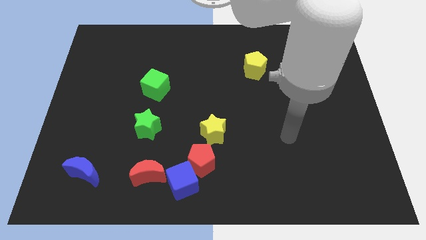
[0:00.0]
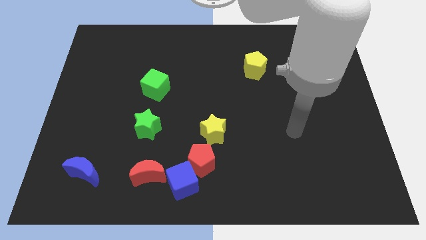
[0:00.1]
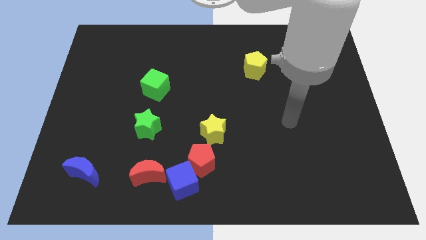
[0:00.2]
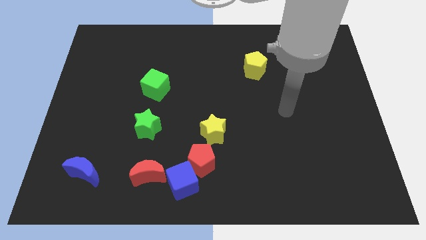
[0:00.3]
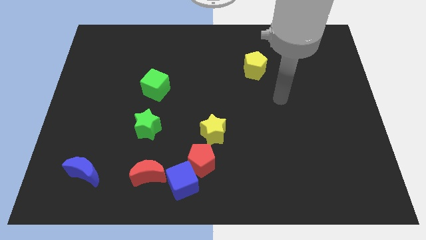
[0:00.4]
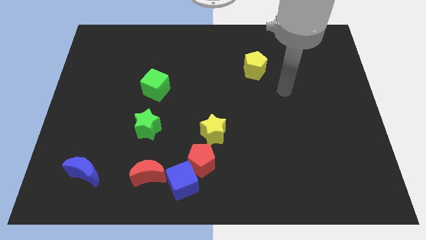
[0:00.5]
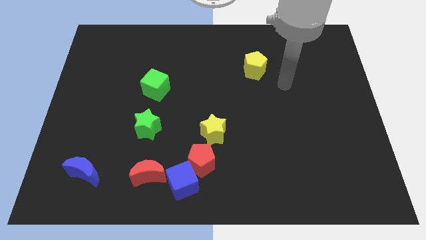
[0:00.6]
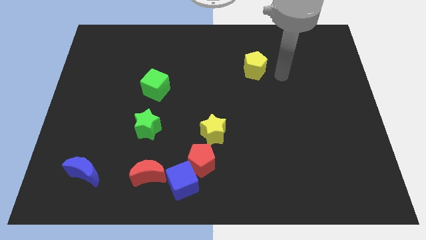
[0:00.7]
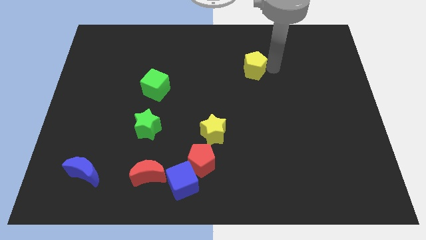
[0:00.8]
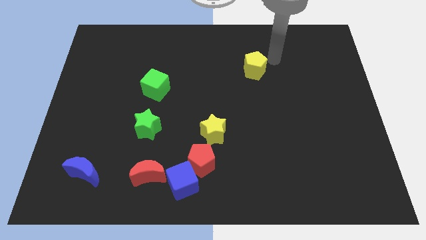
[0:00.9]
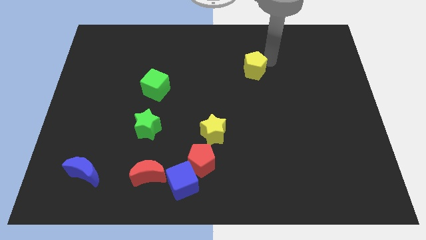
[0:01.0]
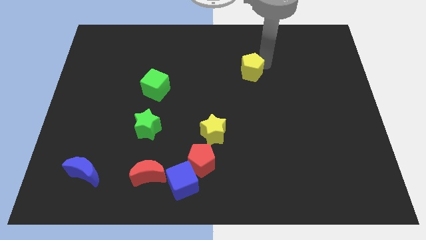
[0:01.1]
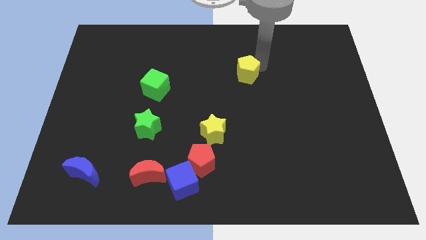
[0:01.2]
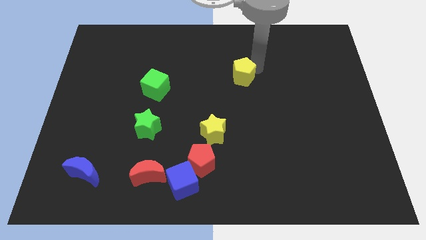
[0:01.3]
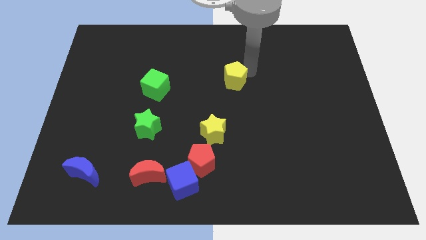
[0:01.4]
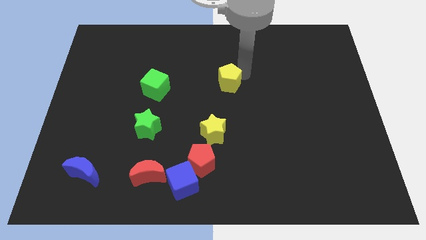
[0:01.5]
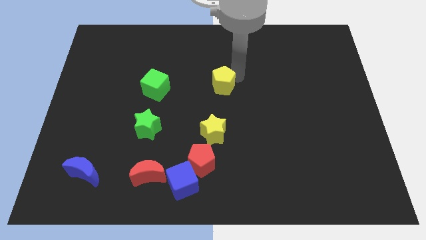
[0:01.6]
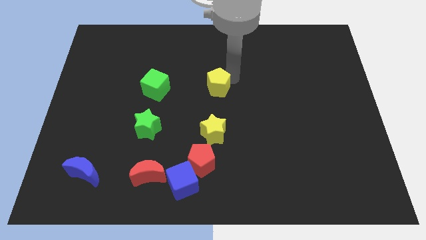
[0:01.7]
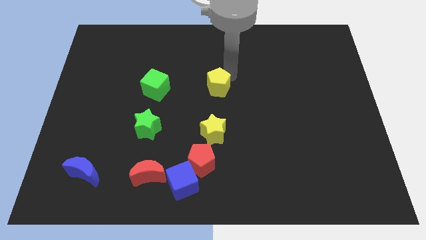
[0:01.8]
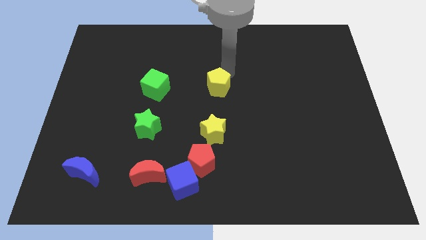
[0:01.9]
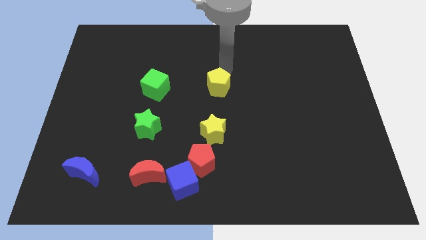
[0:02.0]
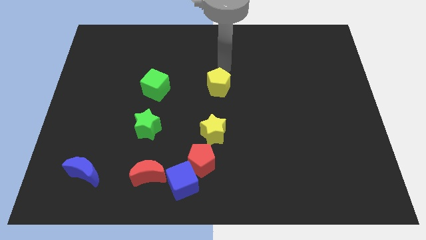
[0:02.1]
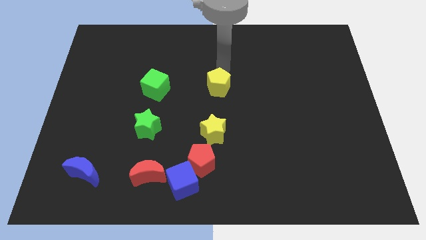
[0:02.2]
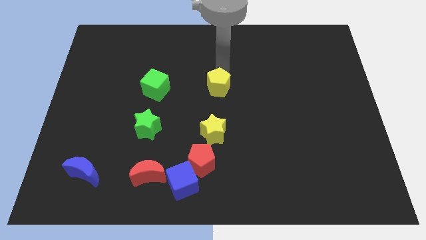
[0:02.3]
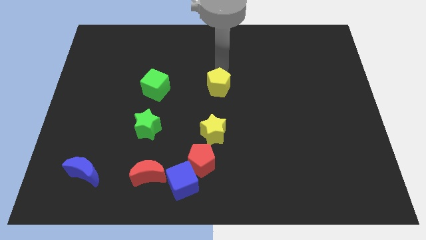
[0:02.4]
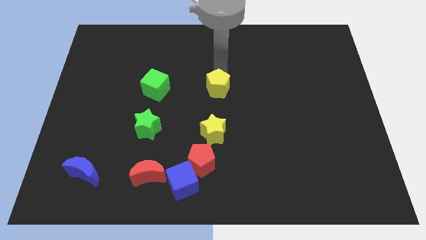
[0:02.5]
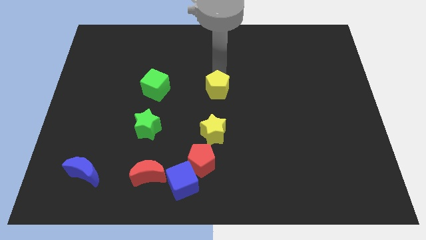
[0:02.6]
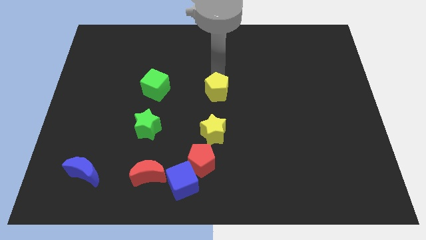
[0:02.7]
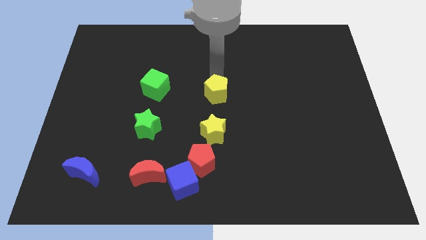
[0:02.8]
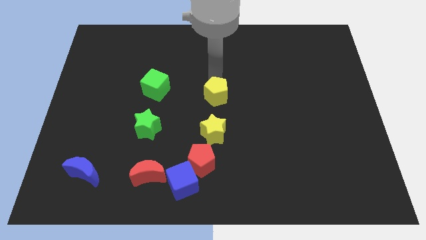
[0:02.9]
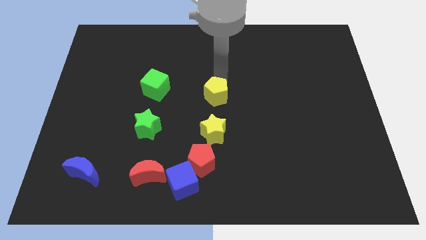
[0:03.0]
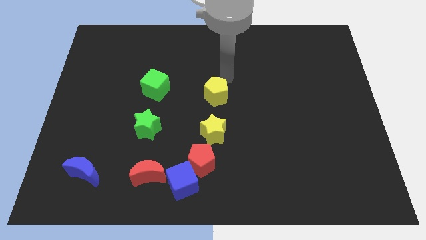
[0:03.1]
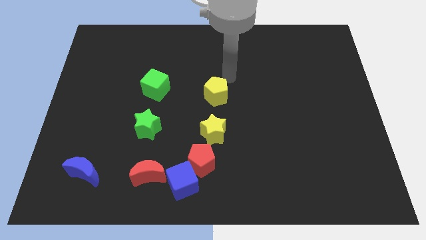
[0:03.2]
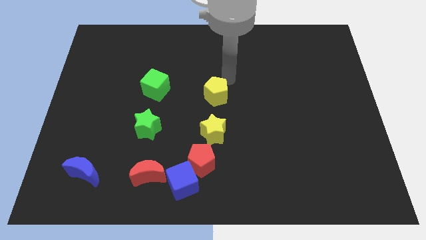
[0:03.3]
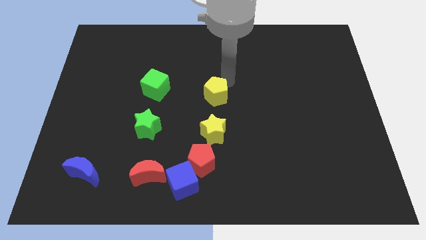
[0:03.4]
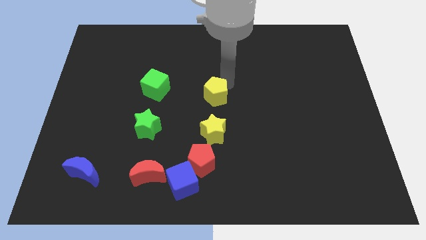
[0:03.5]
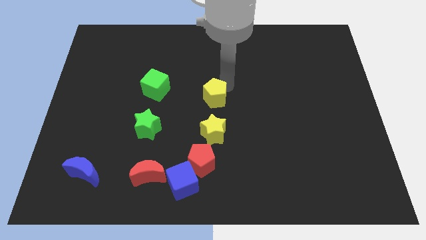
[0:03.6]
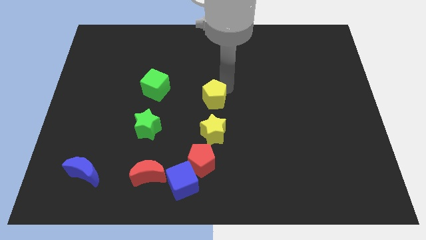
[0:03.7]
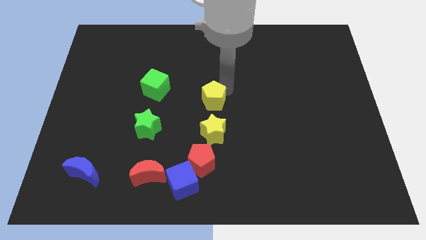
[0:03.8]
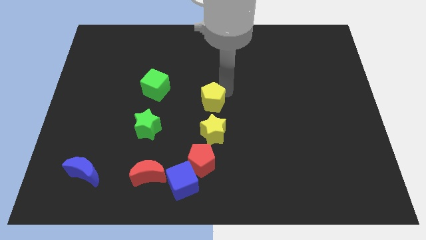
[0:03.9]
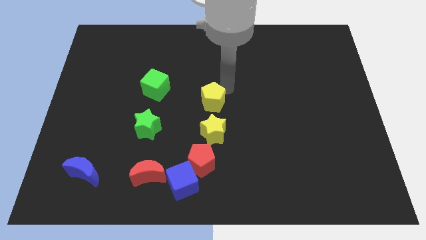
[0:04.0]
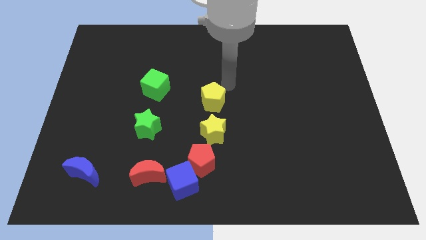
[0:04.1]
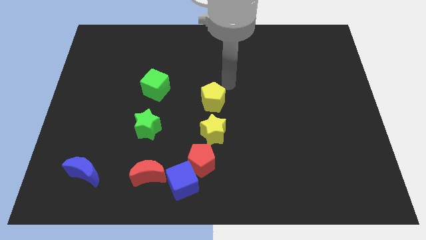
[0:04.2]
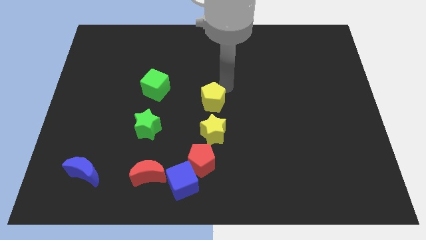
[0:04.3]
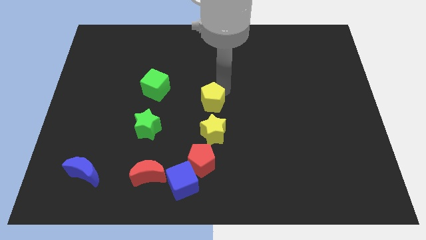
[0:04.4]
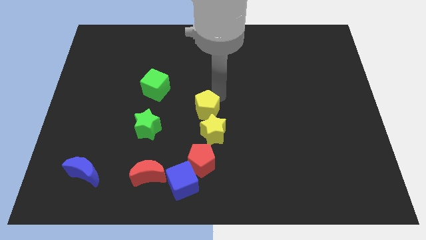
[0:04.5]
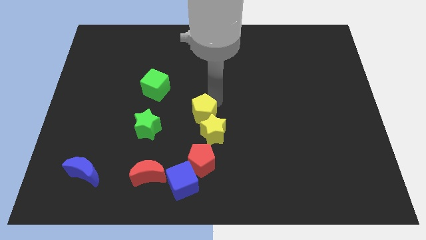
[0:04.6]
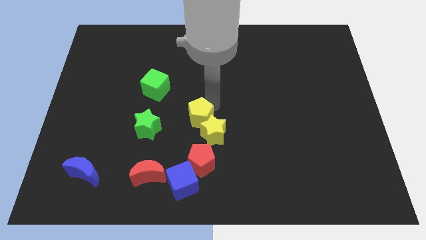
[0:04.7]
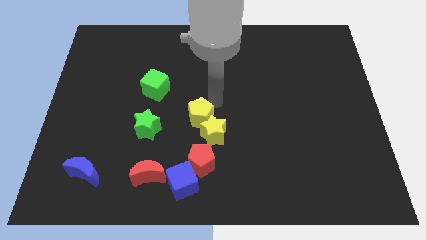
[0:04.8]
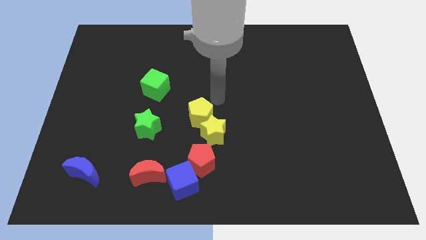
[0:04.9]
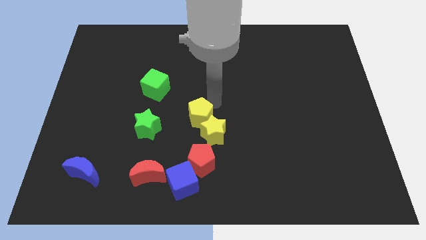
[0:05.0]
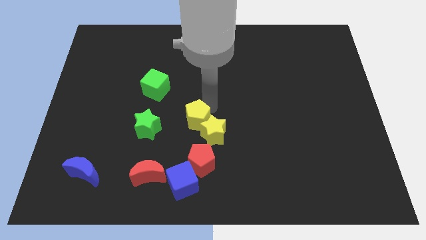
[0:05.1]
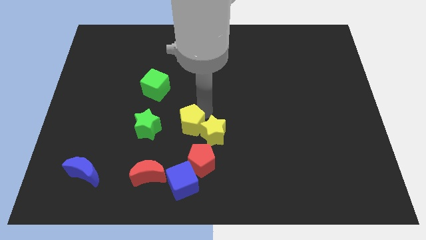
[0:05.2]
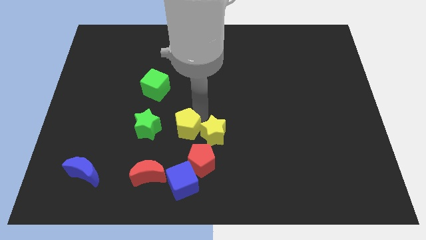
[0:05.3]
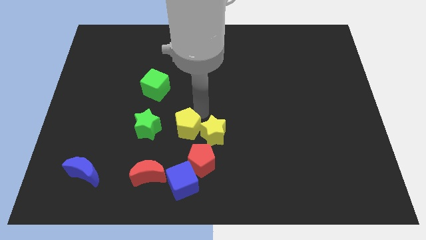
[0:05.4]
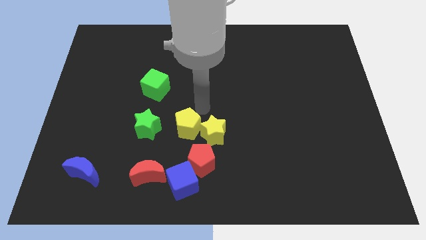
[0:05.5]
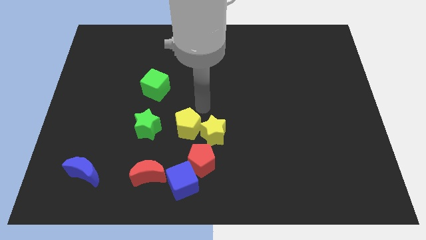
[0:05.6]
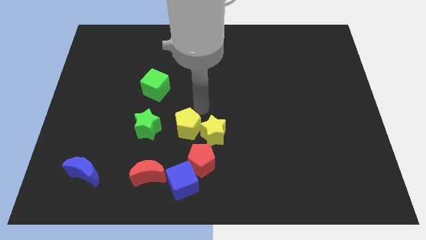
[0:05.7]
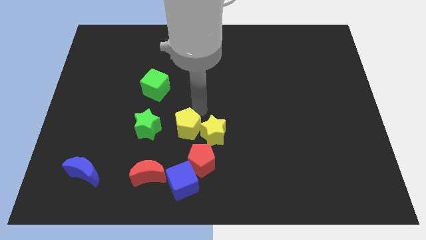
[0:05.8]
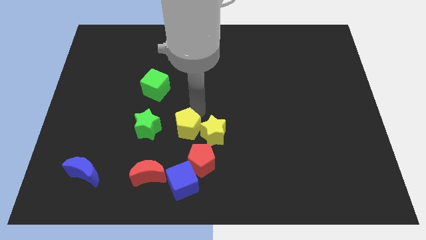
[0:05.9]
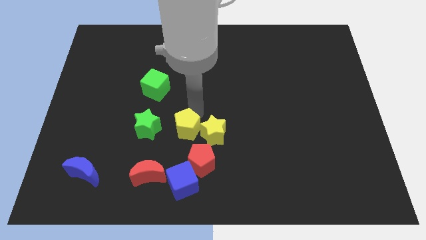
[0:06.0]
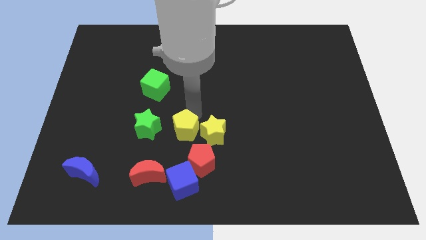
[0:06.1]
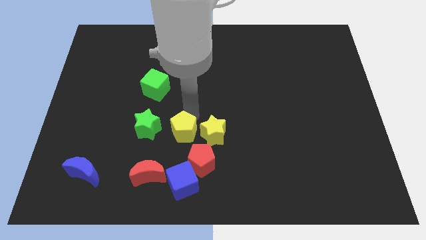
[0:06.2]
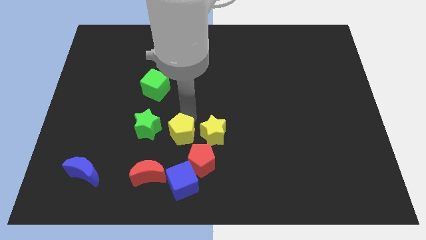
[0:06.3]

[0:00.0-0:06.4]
move the yellow pentagon to the bottom right of the green star

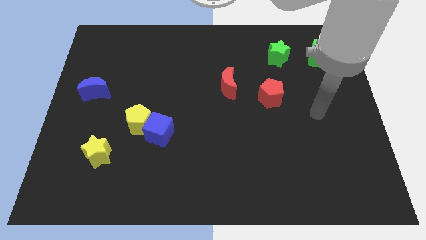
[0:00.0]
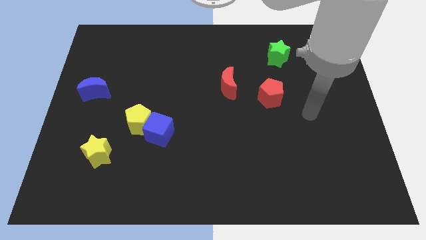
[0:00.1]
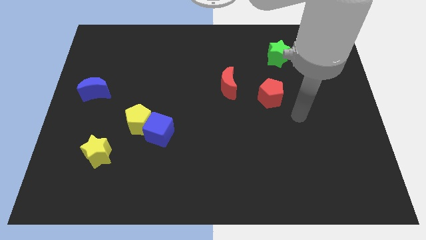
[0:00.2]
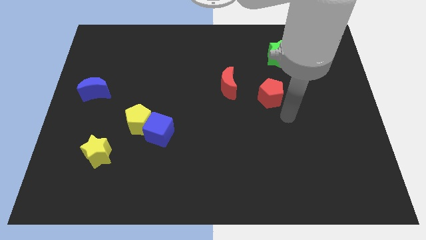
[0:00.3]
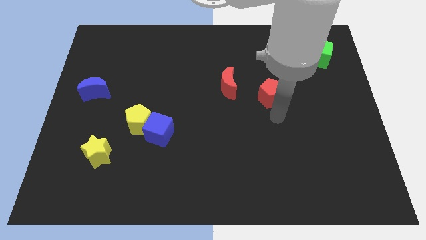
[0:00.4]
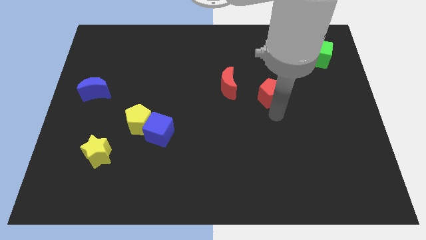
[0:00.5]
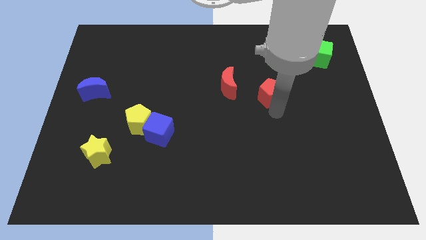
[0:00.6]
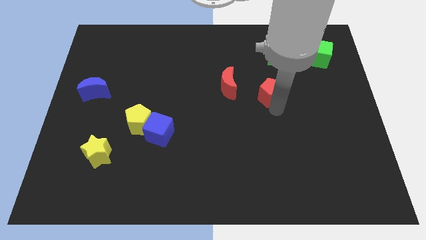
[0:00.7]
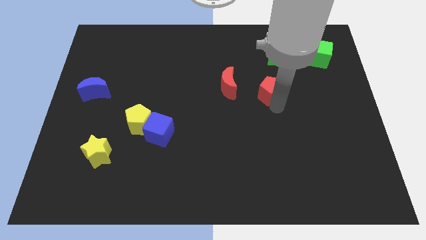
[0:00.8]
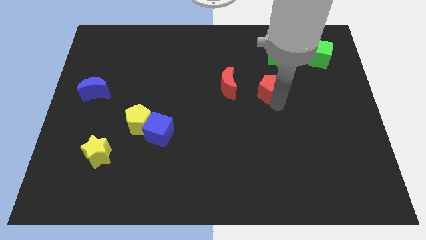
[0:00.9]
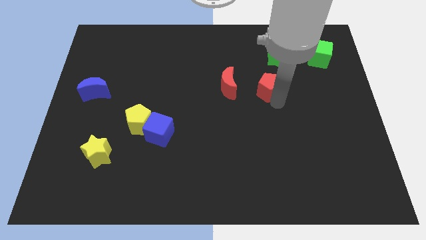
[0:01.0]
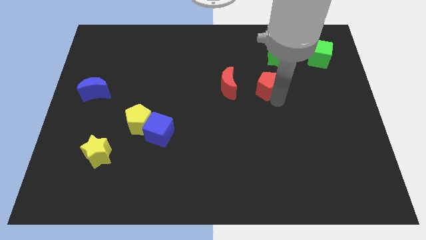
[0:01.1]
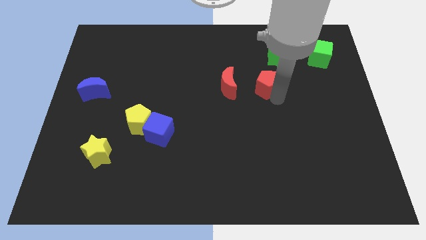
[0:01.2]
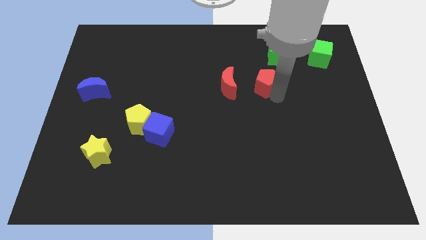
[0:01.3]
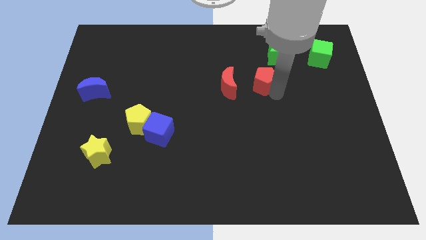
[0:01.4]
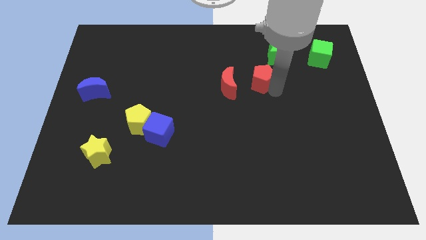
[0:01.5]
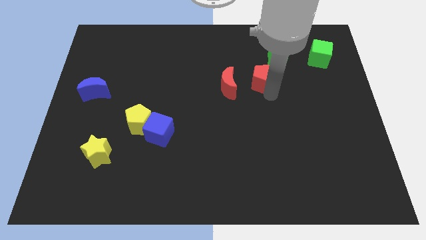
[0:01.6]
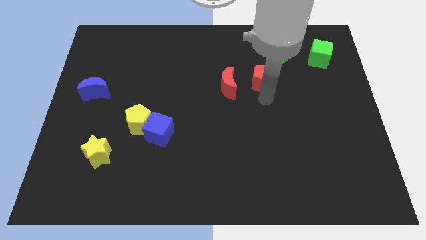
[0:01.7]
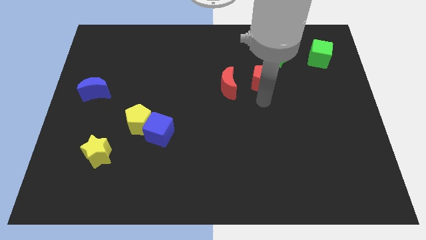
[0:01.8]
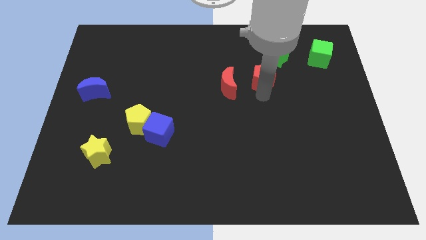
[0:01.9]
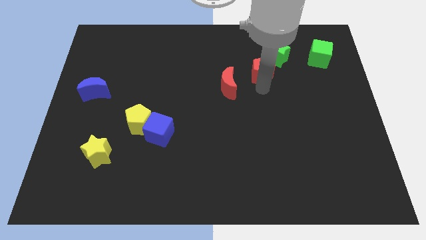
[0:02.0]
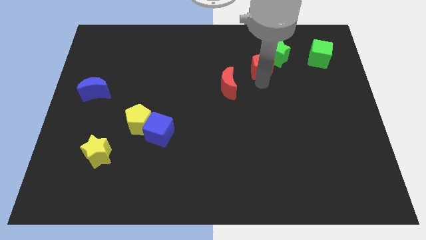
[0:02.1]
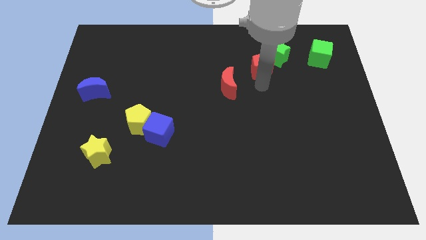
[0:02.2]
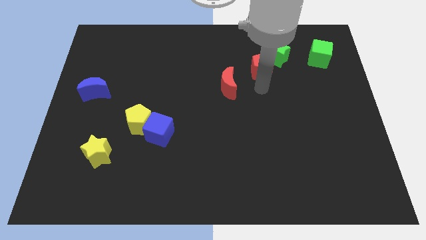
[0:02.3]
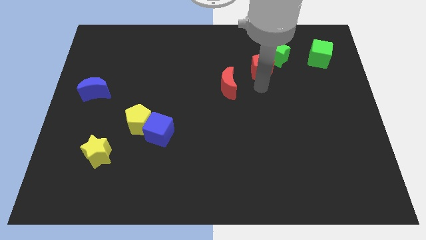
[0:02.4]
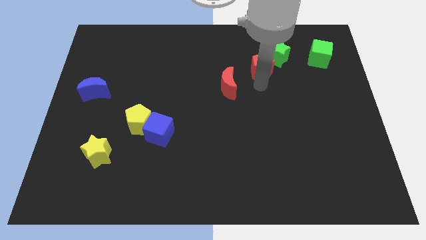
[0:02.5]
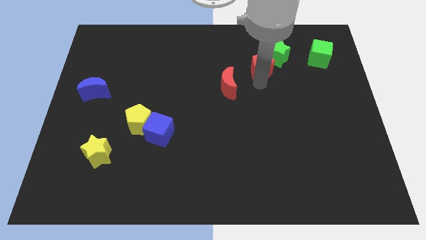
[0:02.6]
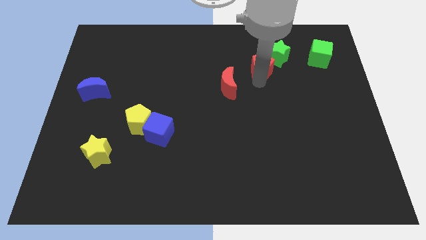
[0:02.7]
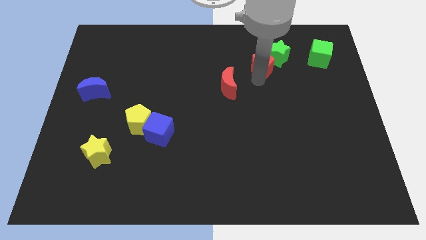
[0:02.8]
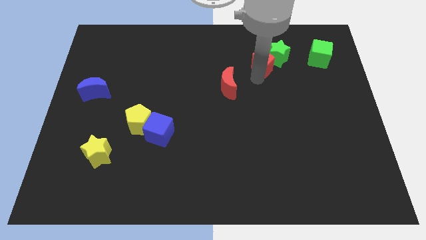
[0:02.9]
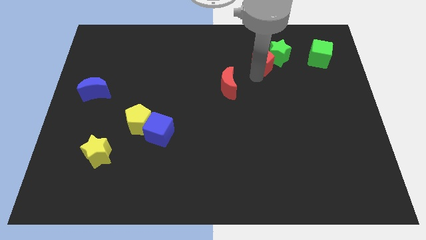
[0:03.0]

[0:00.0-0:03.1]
move the red pentagon to the left of the green cube
